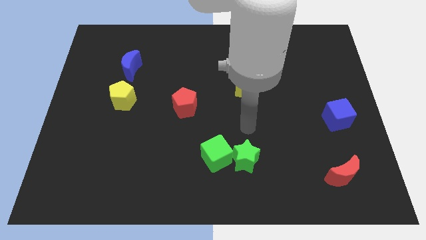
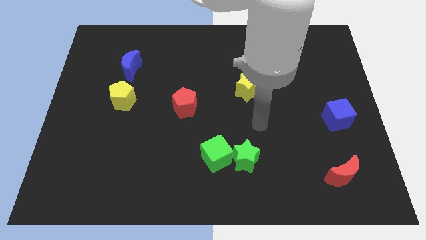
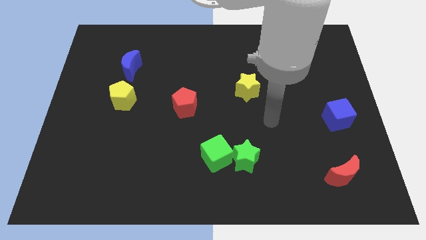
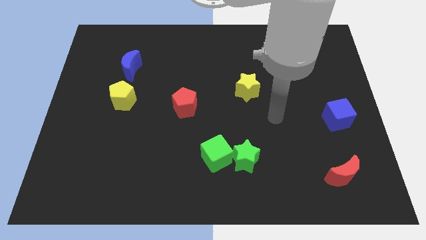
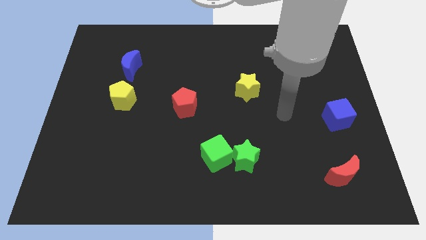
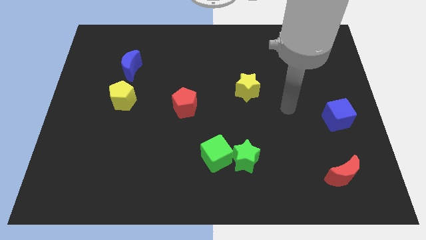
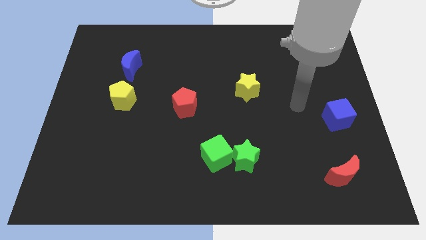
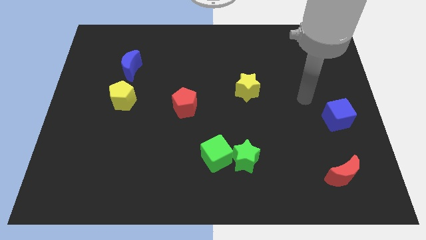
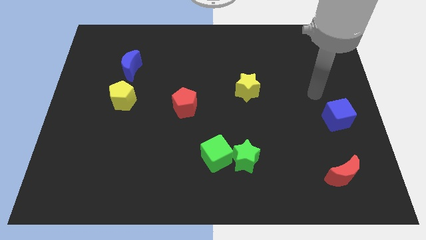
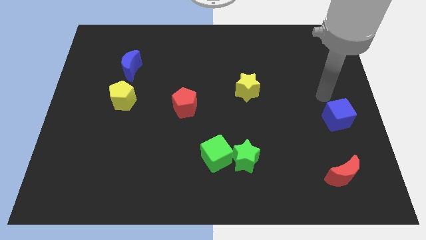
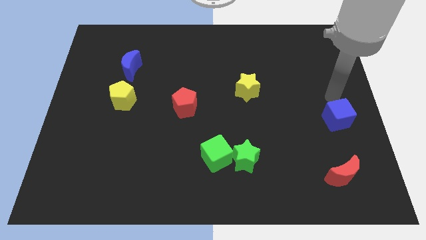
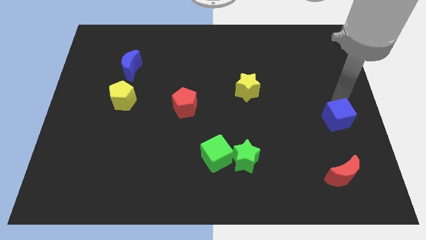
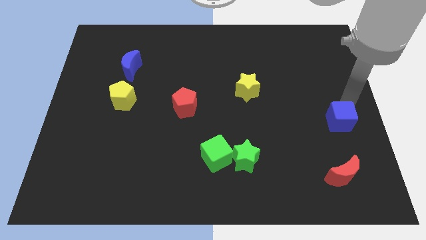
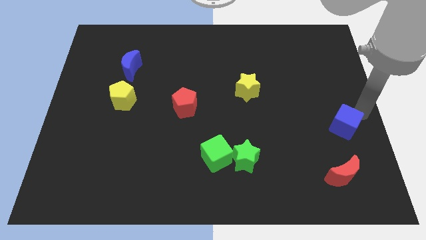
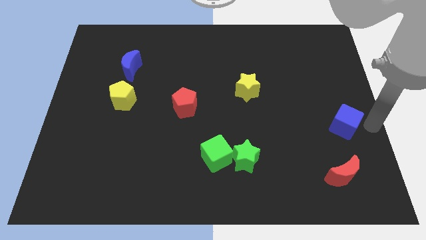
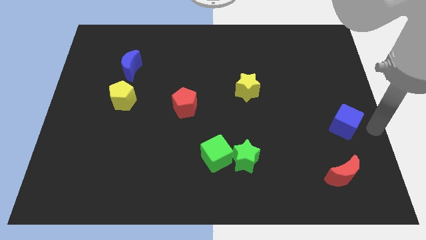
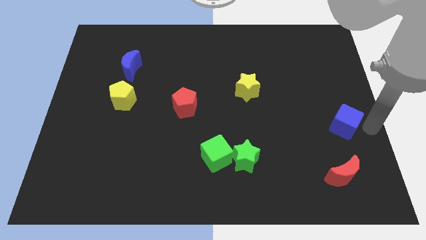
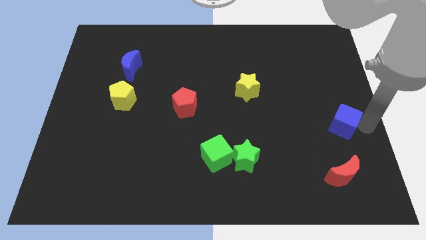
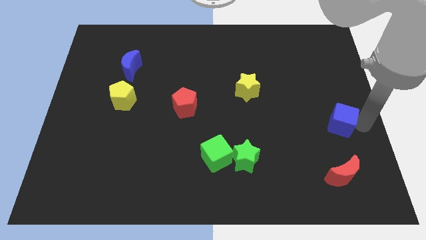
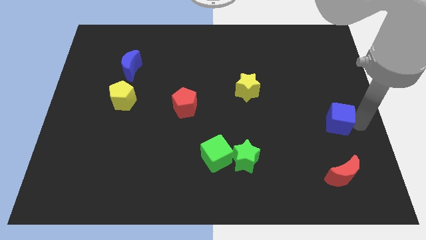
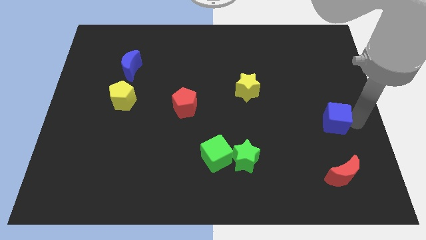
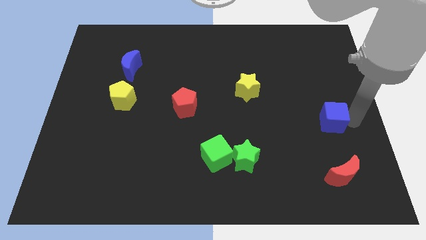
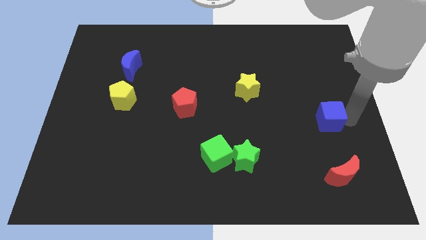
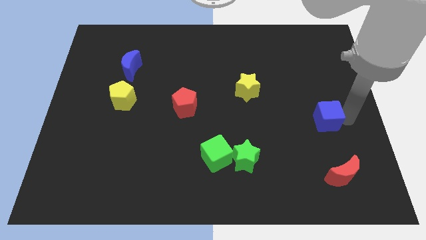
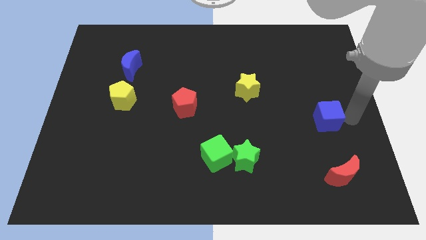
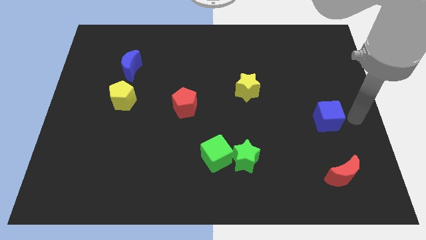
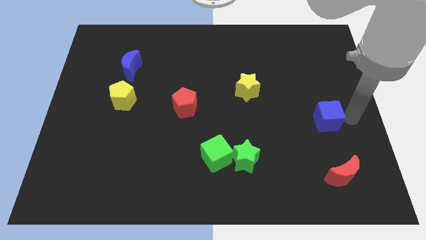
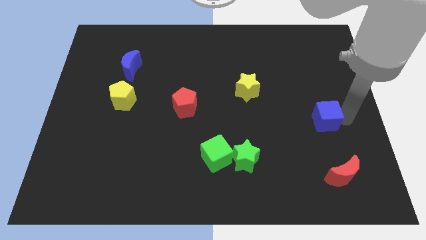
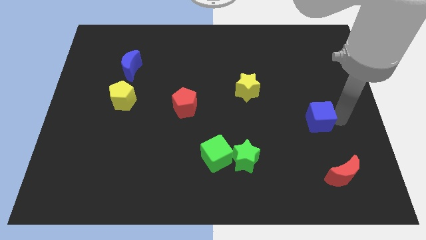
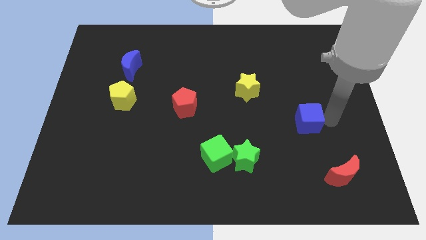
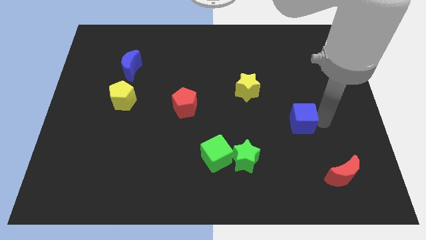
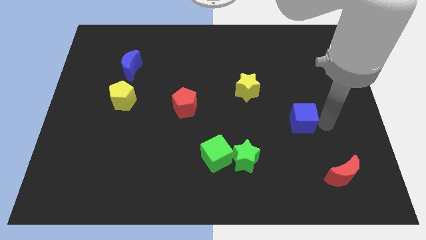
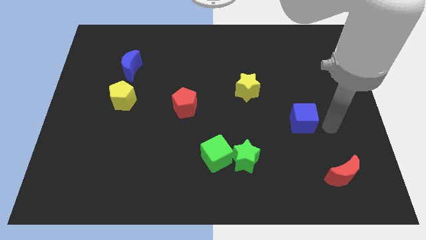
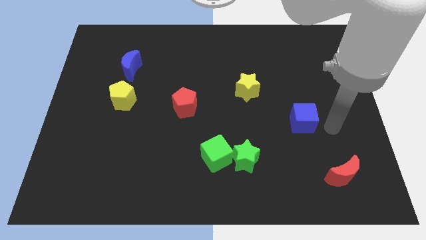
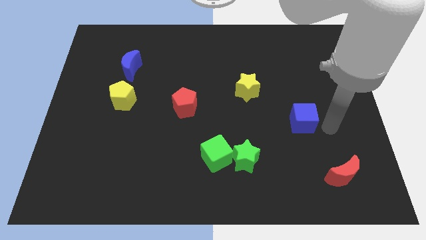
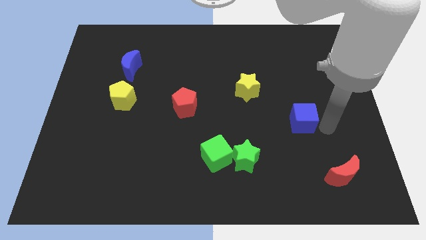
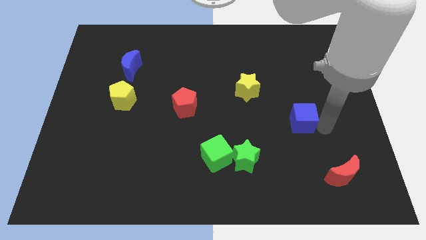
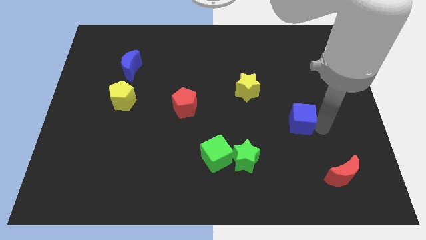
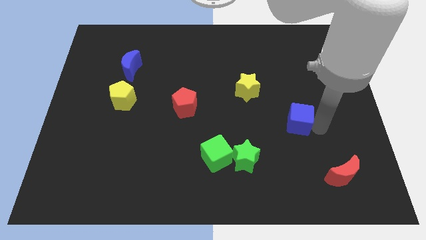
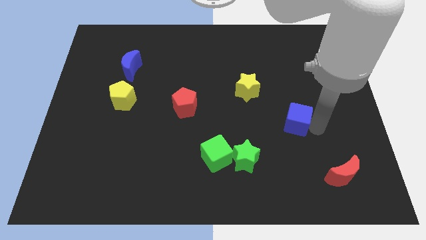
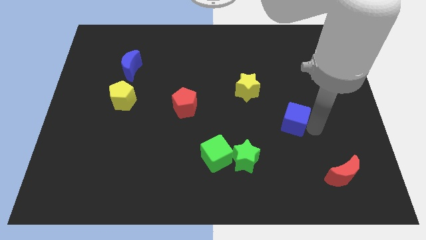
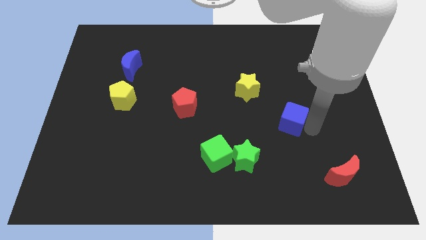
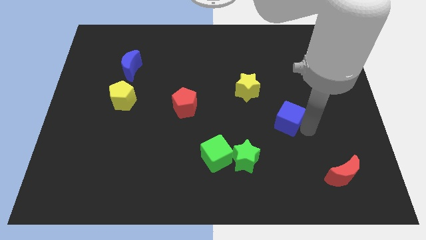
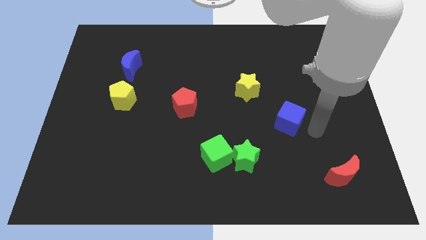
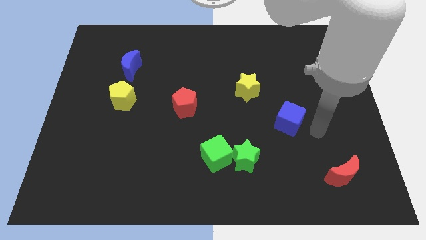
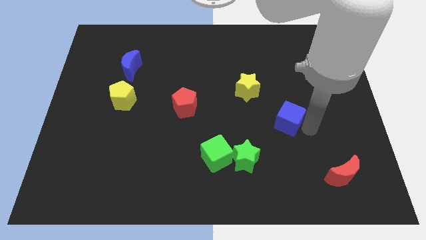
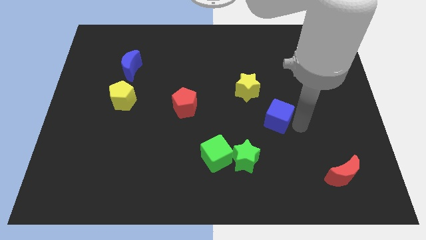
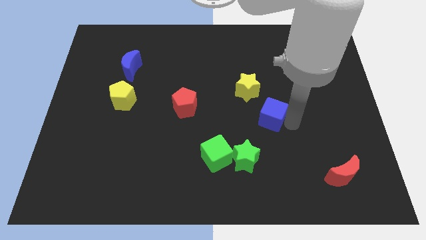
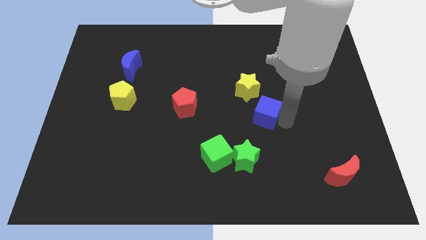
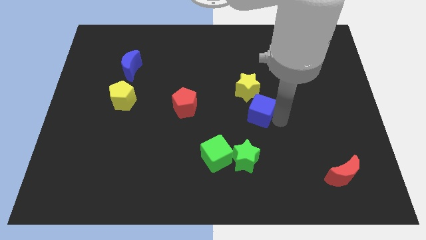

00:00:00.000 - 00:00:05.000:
push the blue cube to the center

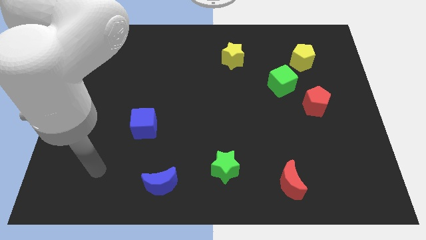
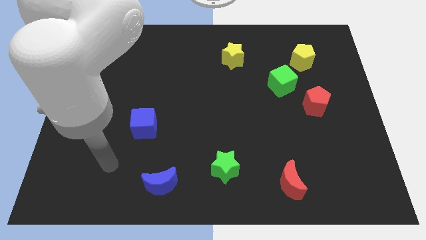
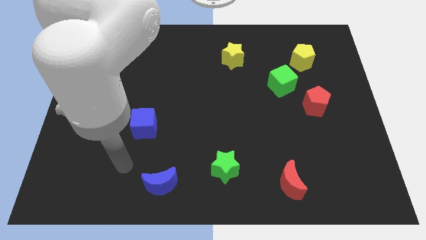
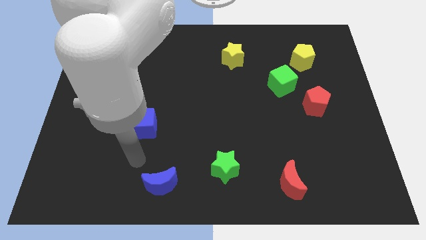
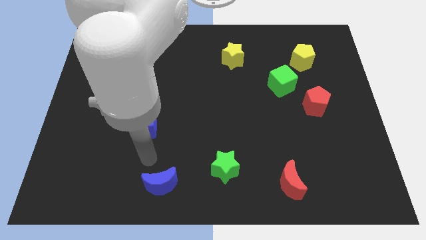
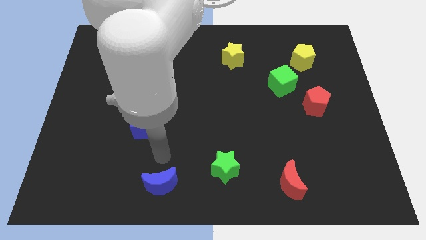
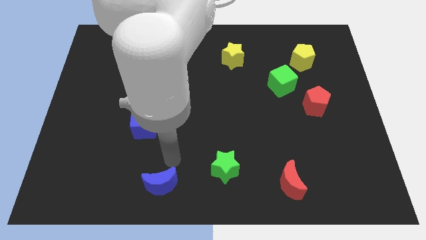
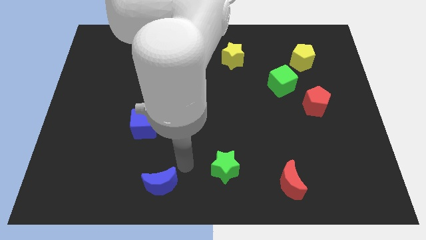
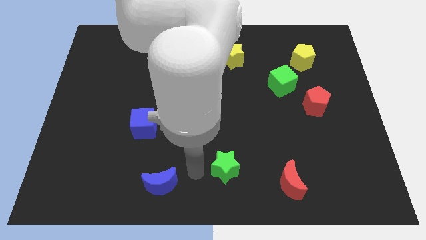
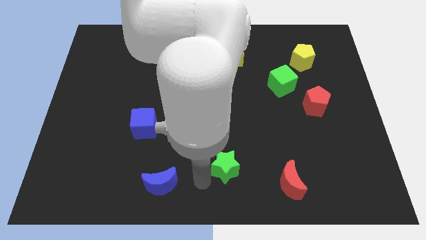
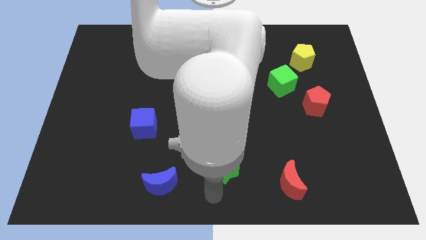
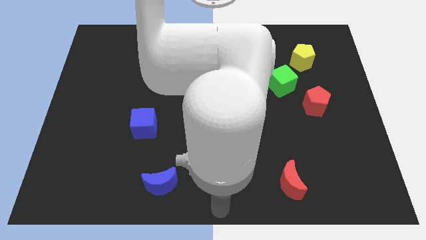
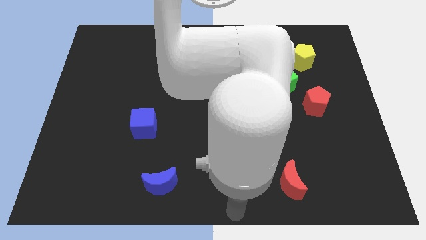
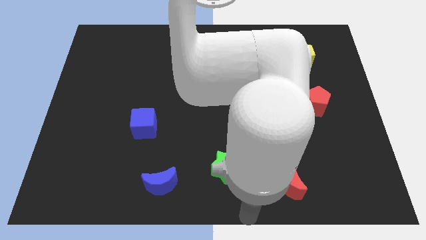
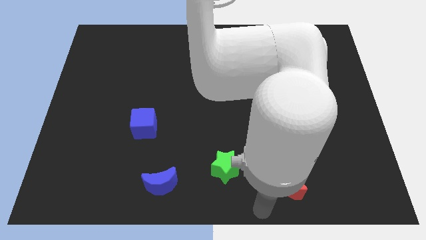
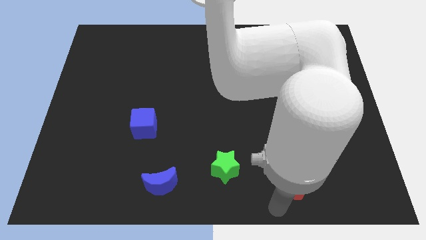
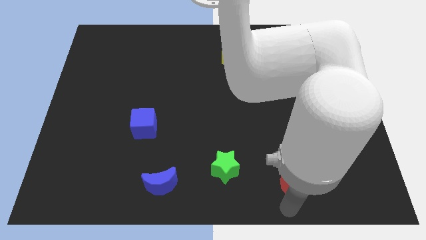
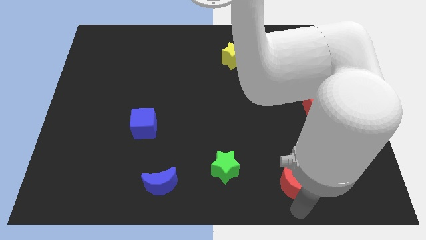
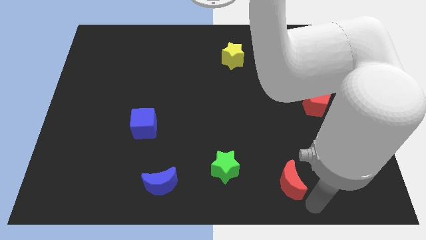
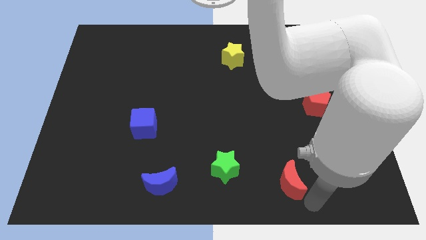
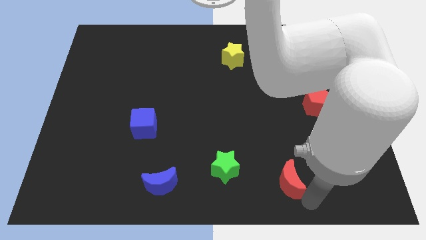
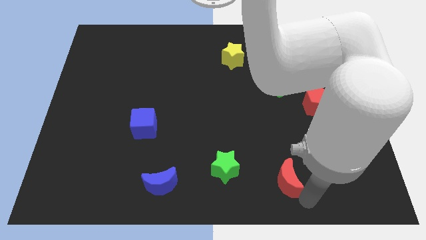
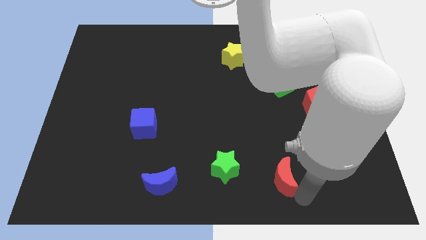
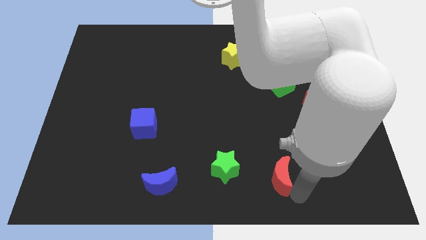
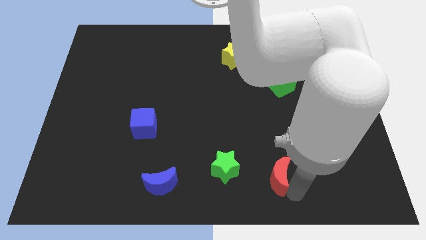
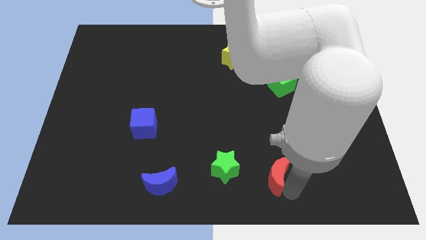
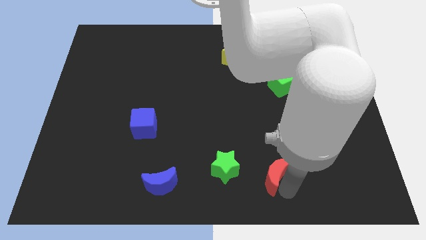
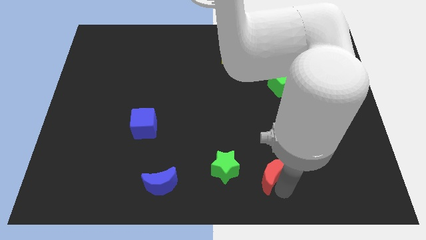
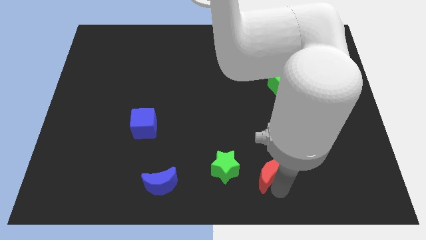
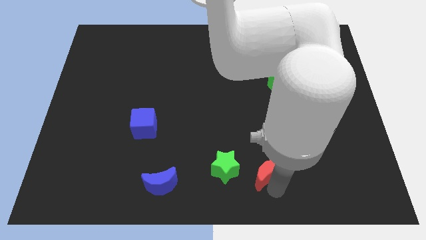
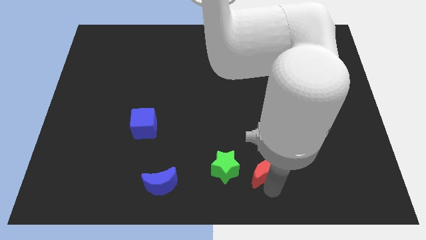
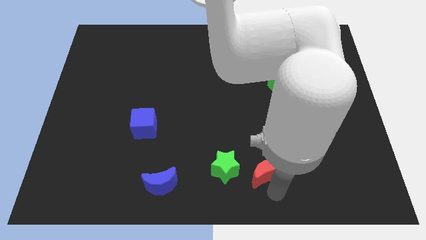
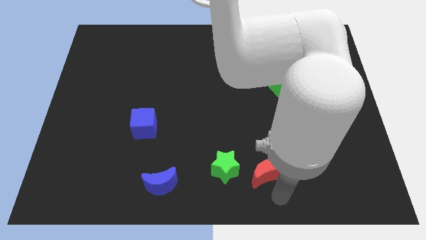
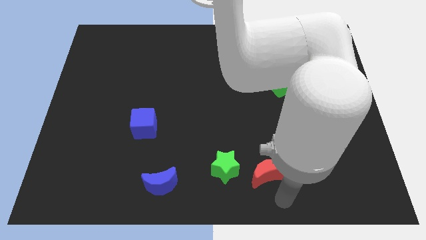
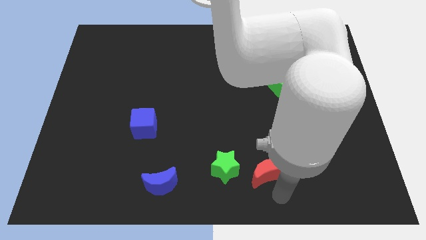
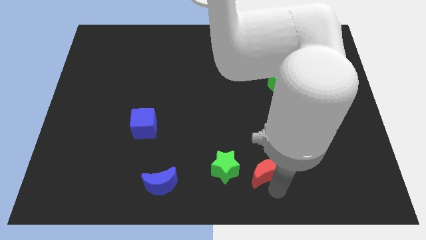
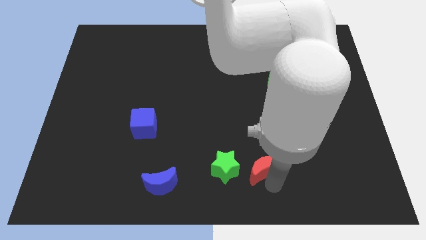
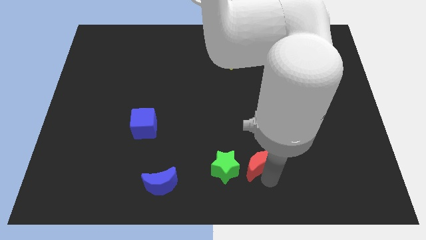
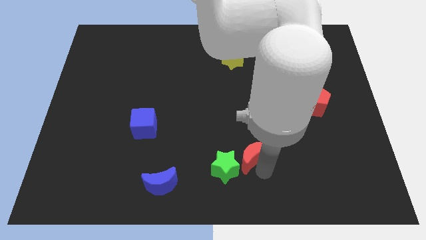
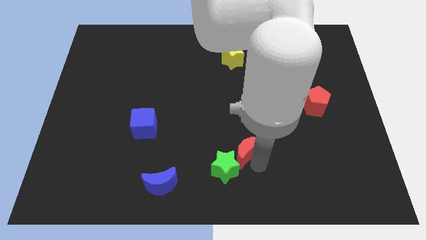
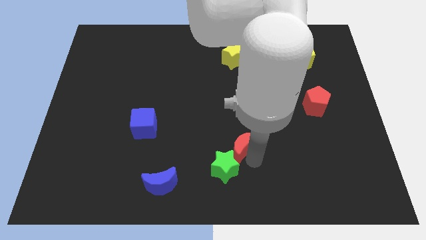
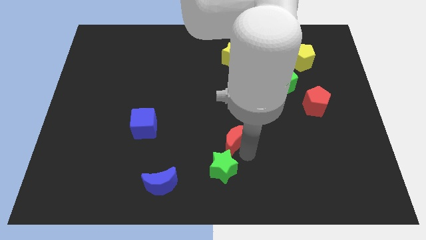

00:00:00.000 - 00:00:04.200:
slide the red moon to the middle
